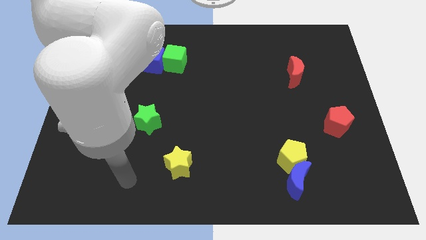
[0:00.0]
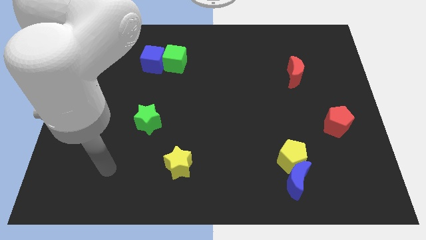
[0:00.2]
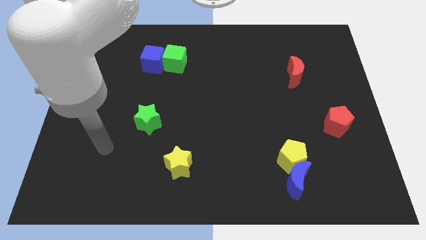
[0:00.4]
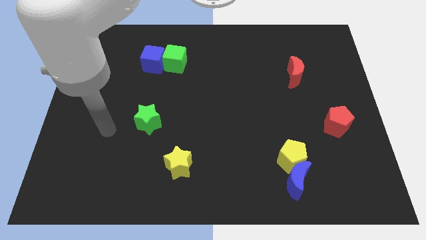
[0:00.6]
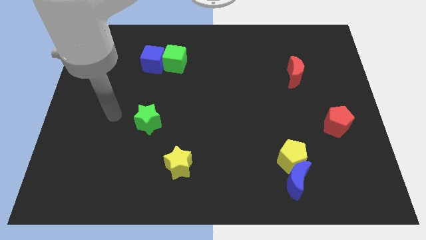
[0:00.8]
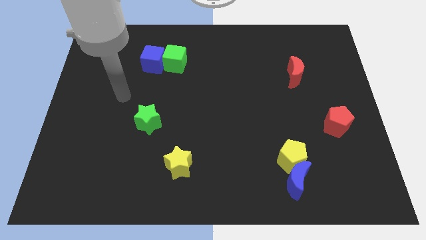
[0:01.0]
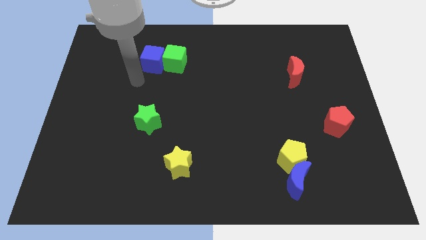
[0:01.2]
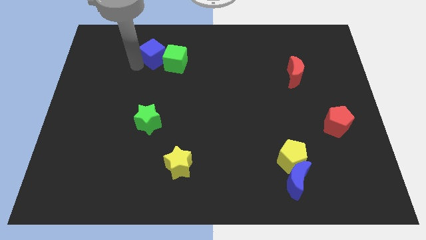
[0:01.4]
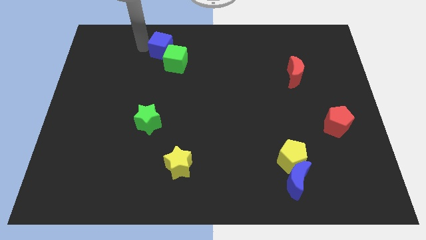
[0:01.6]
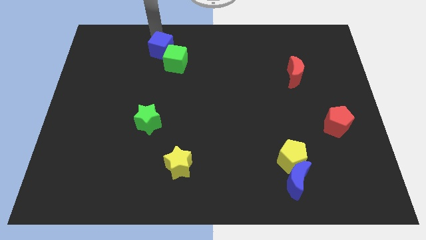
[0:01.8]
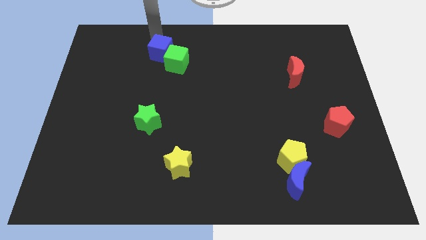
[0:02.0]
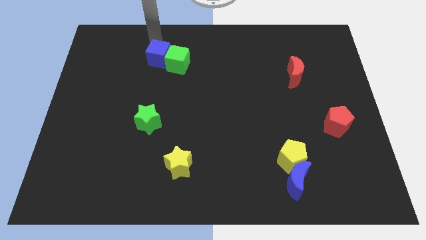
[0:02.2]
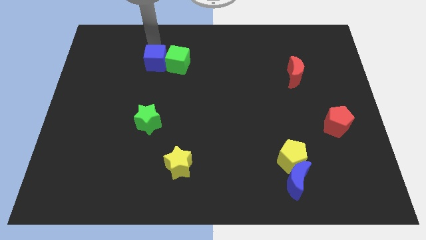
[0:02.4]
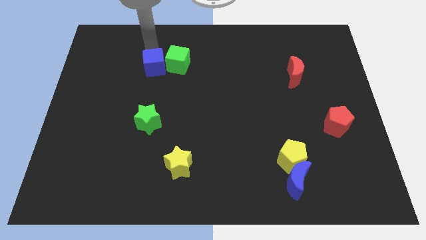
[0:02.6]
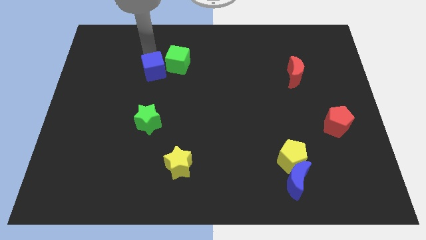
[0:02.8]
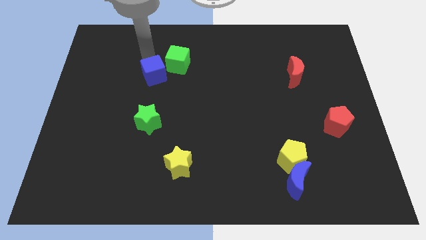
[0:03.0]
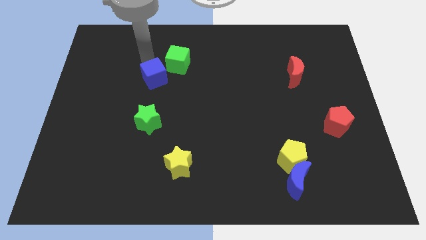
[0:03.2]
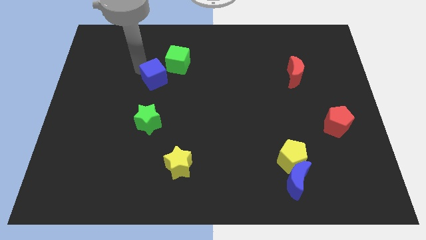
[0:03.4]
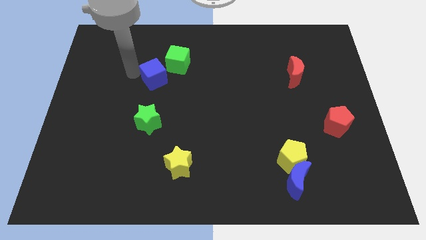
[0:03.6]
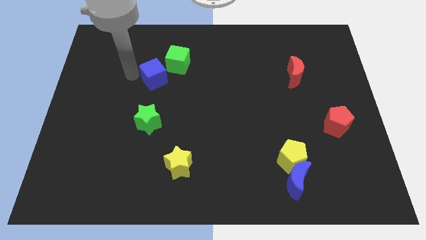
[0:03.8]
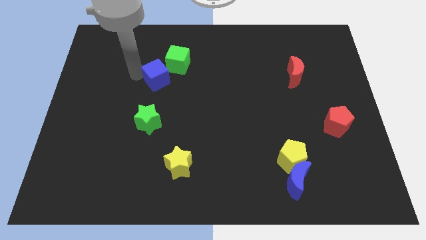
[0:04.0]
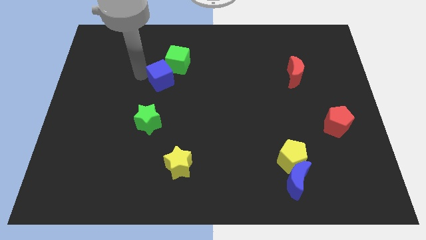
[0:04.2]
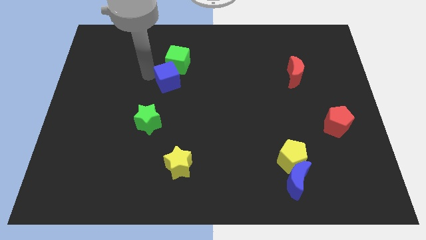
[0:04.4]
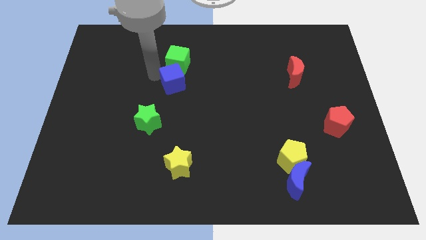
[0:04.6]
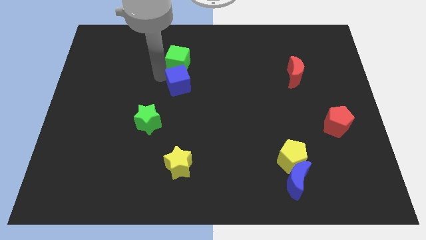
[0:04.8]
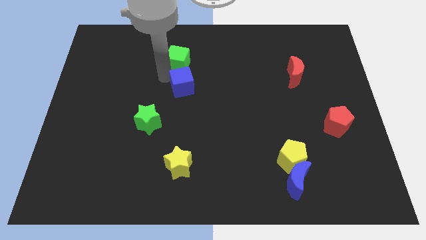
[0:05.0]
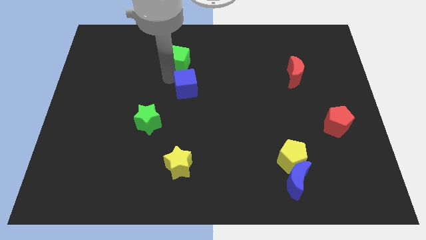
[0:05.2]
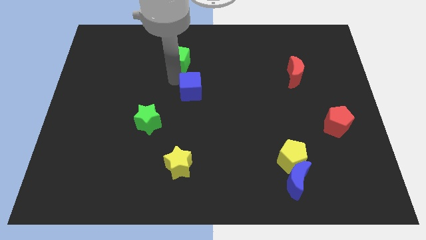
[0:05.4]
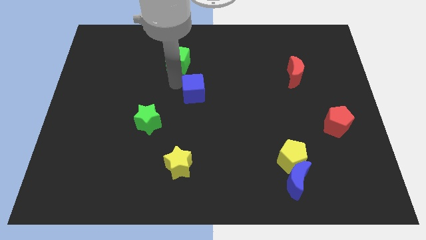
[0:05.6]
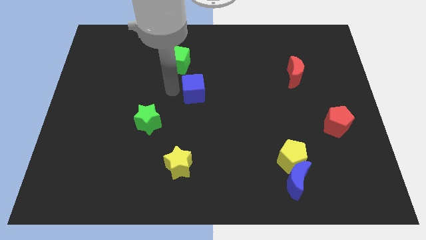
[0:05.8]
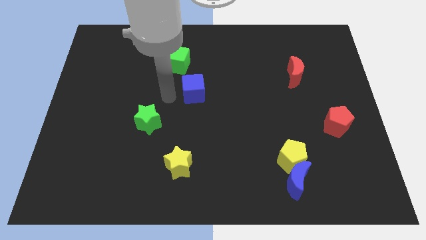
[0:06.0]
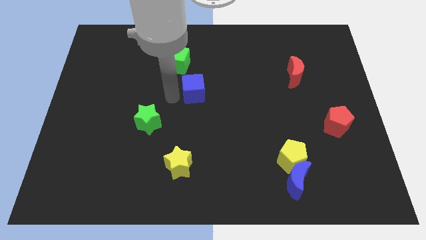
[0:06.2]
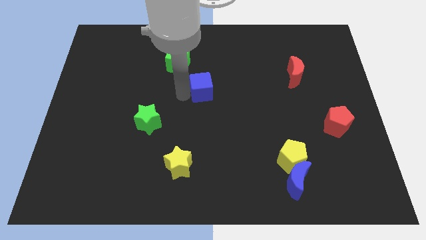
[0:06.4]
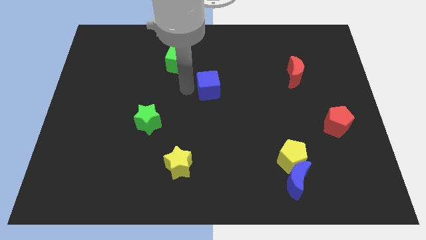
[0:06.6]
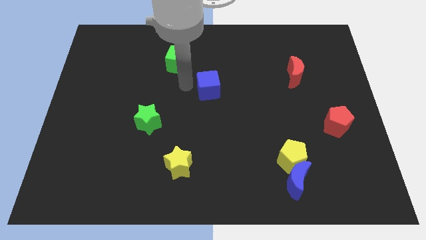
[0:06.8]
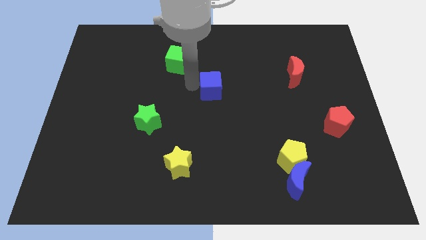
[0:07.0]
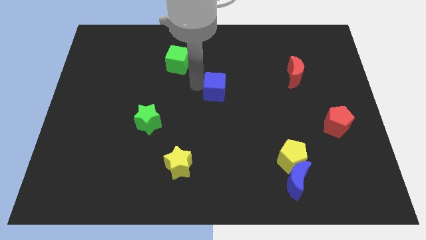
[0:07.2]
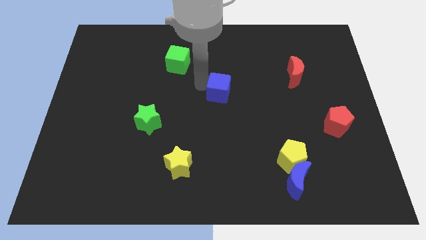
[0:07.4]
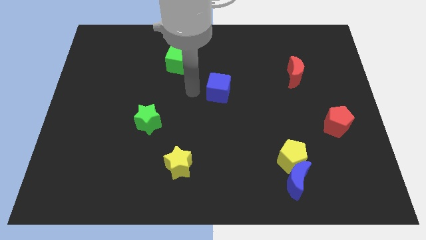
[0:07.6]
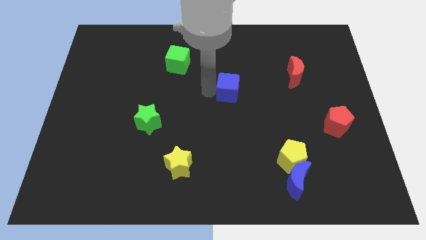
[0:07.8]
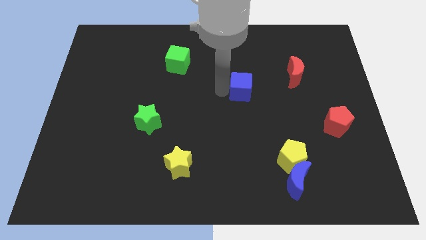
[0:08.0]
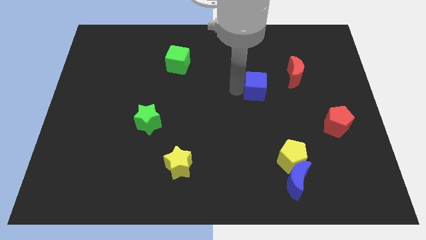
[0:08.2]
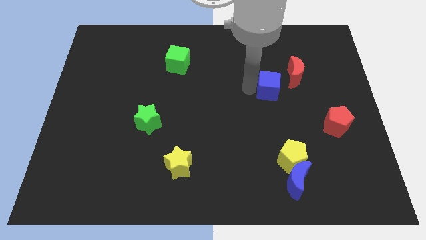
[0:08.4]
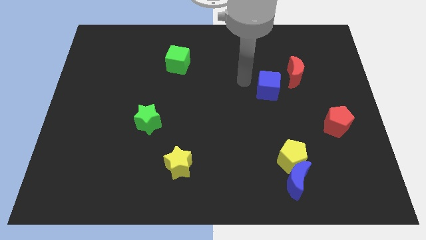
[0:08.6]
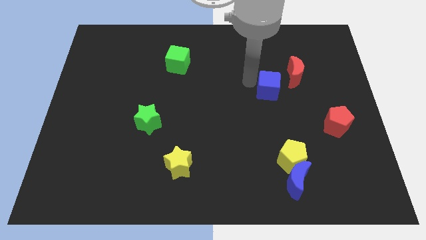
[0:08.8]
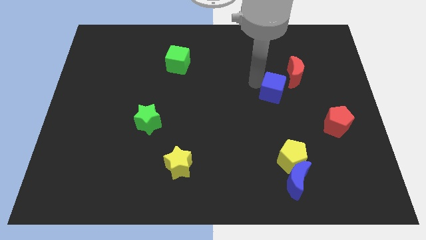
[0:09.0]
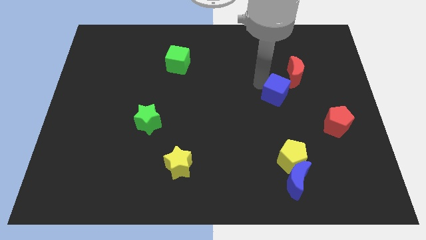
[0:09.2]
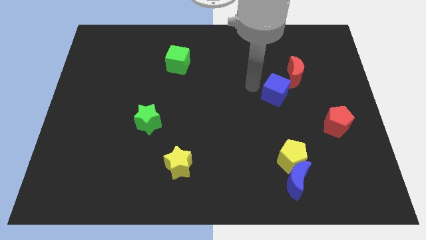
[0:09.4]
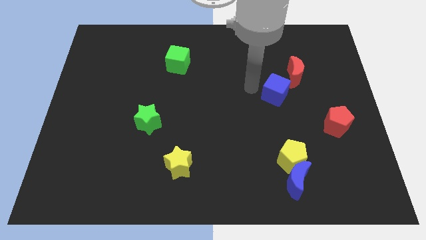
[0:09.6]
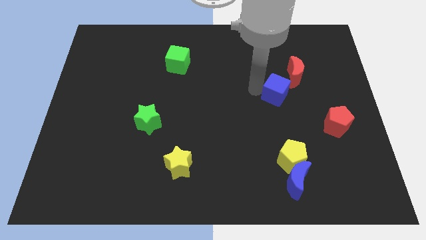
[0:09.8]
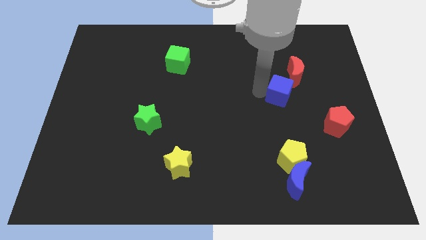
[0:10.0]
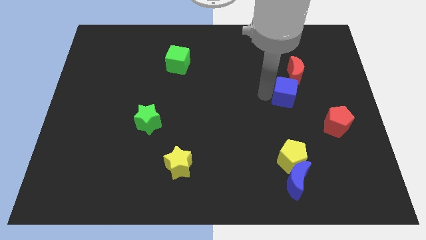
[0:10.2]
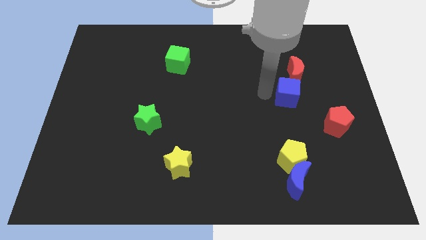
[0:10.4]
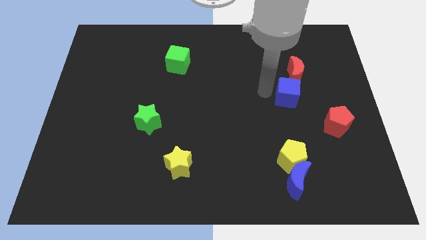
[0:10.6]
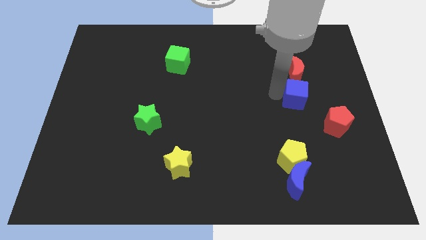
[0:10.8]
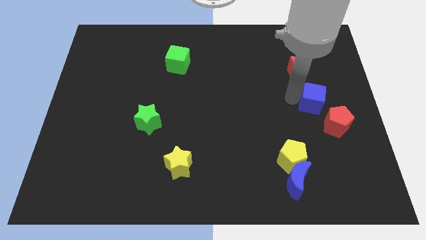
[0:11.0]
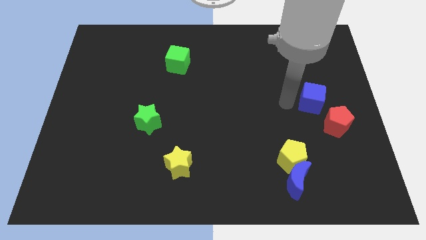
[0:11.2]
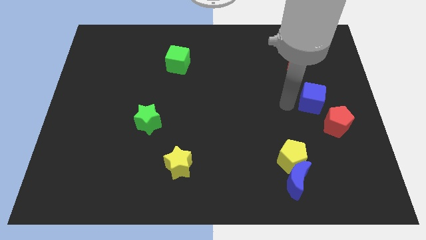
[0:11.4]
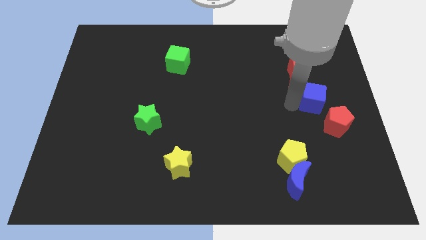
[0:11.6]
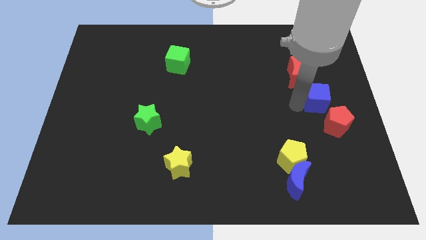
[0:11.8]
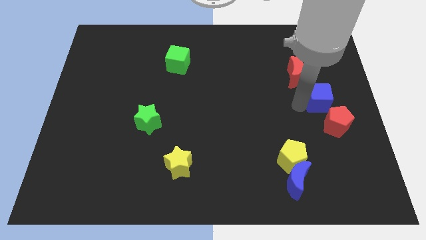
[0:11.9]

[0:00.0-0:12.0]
move the blue cube to the right side of the board
